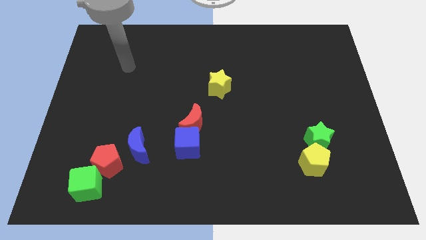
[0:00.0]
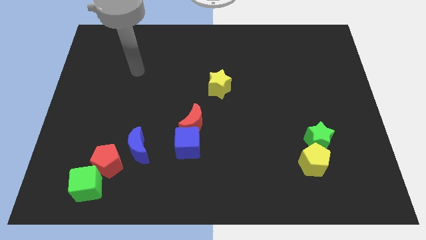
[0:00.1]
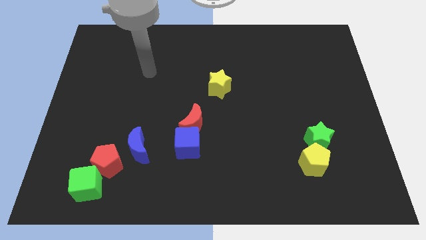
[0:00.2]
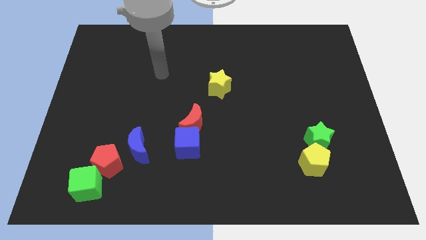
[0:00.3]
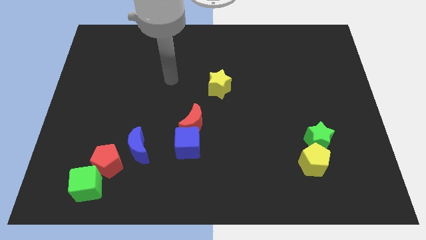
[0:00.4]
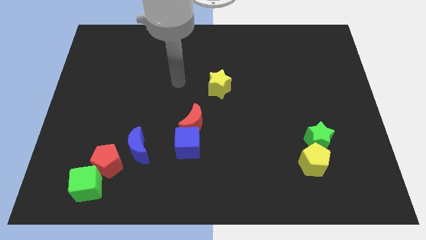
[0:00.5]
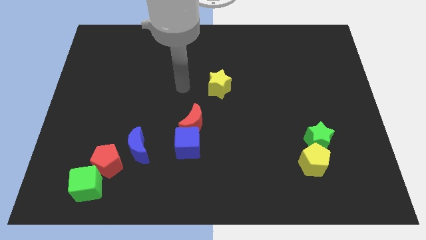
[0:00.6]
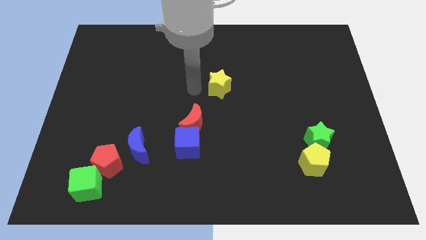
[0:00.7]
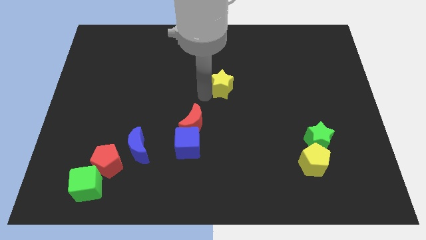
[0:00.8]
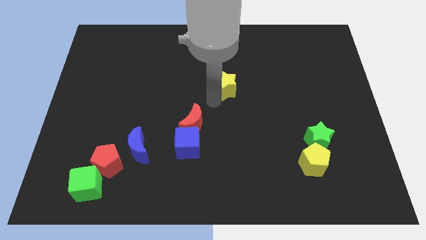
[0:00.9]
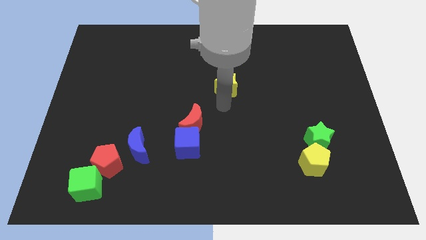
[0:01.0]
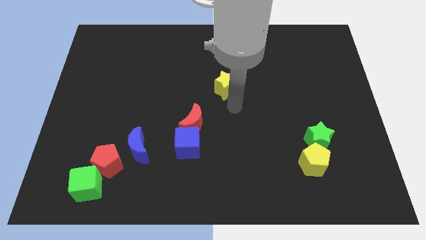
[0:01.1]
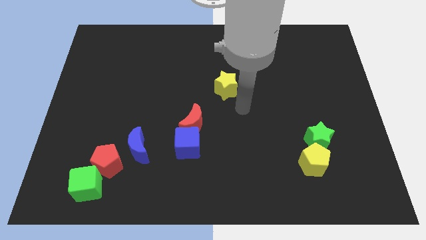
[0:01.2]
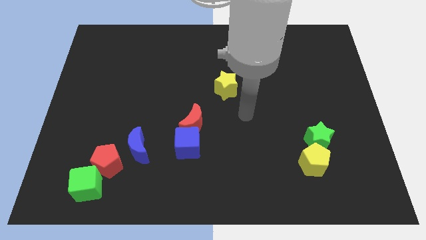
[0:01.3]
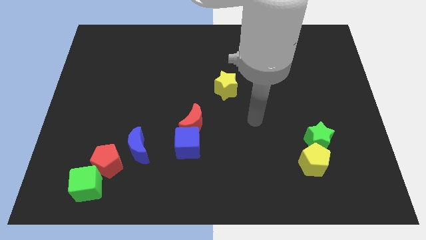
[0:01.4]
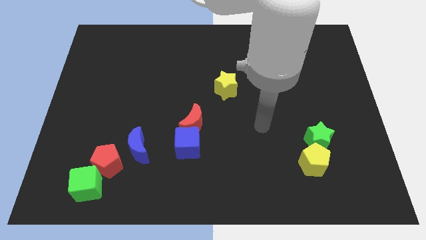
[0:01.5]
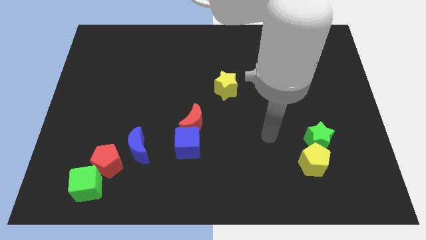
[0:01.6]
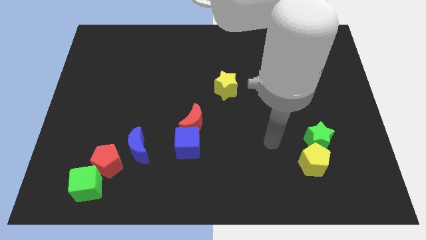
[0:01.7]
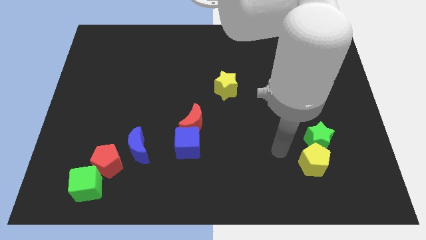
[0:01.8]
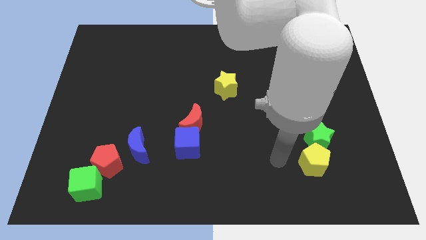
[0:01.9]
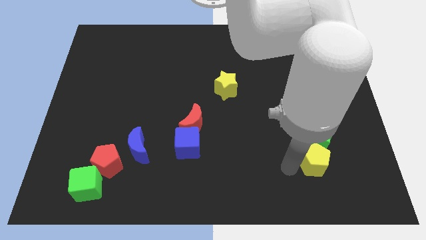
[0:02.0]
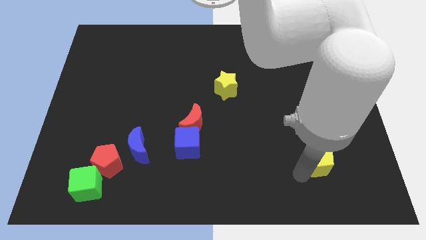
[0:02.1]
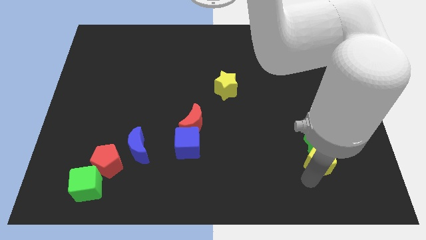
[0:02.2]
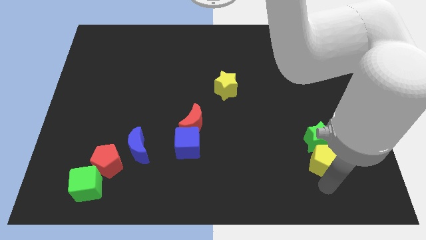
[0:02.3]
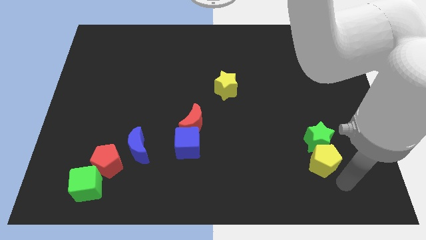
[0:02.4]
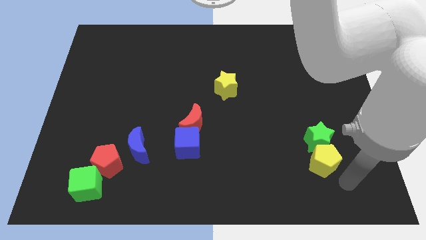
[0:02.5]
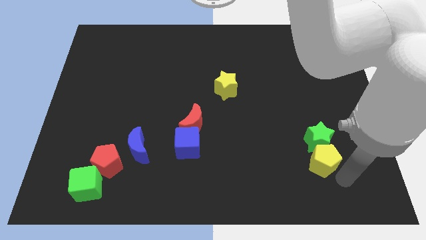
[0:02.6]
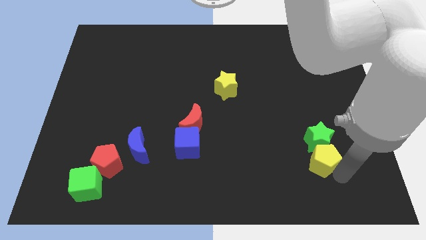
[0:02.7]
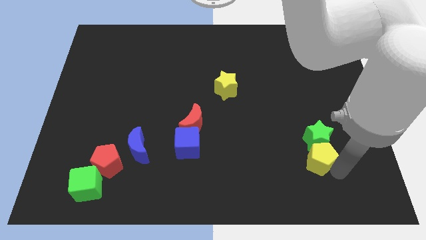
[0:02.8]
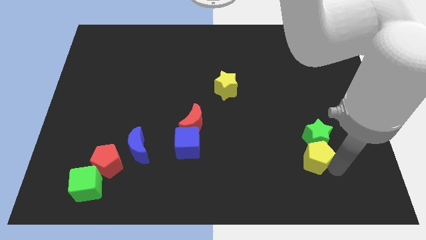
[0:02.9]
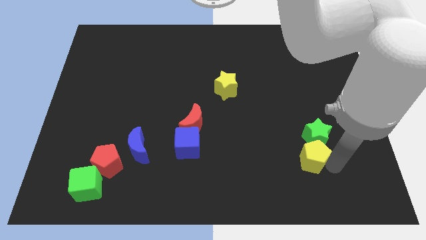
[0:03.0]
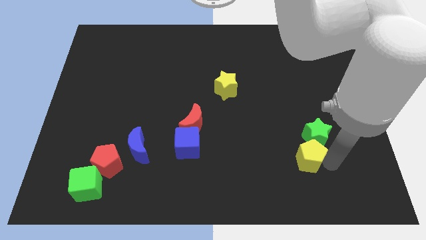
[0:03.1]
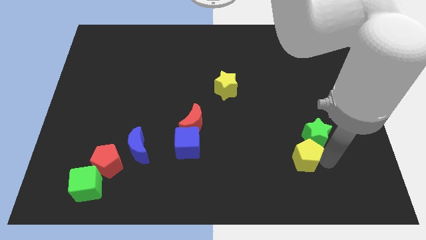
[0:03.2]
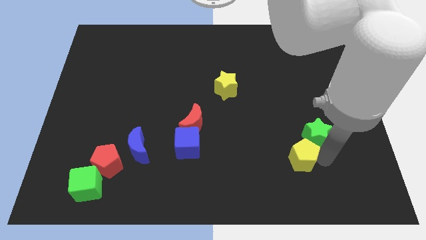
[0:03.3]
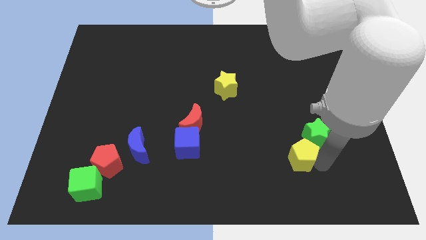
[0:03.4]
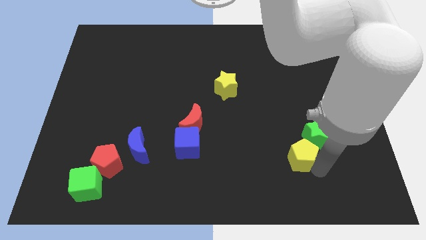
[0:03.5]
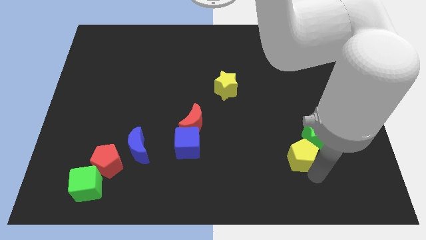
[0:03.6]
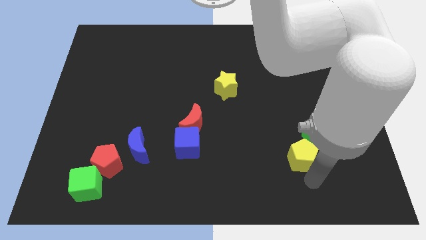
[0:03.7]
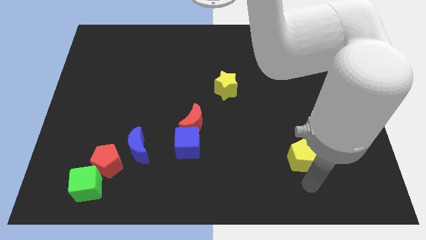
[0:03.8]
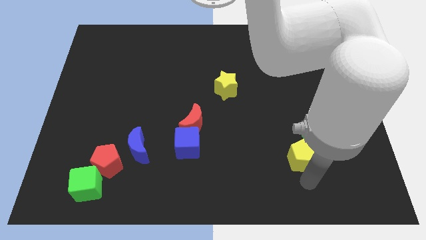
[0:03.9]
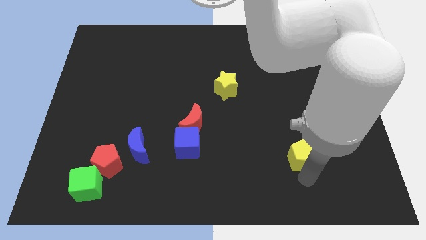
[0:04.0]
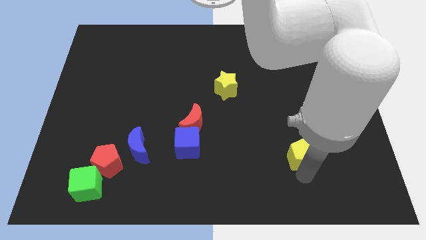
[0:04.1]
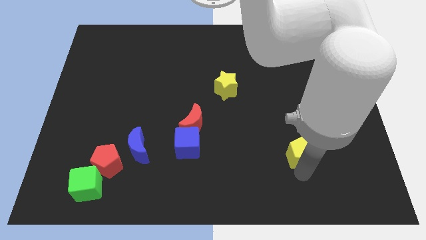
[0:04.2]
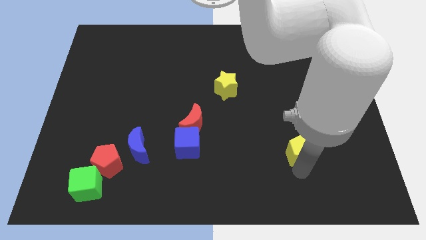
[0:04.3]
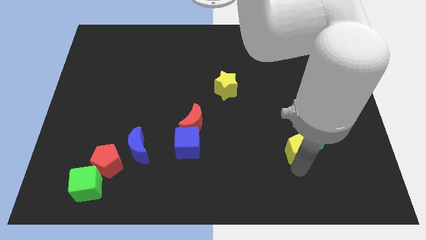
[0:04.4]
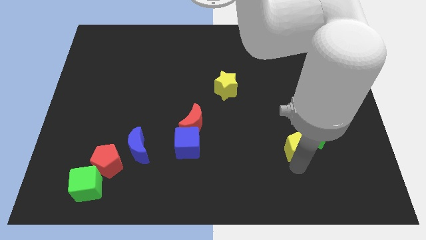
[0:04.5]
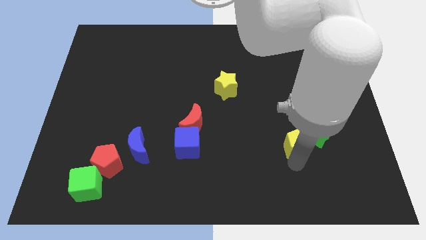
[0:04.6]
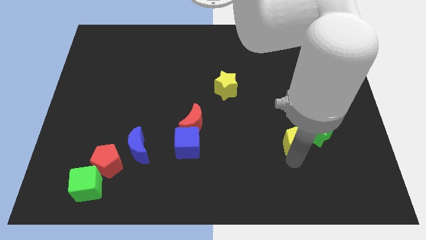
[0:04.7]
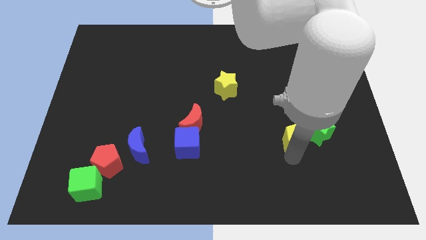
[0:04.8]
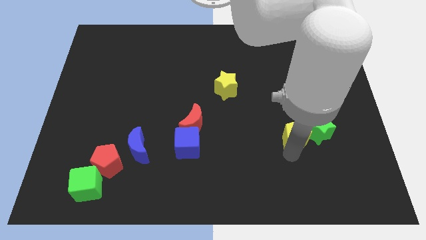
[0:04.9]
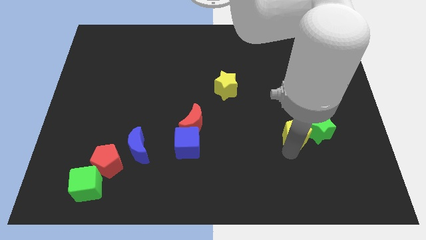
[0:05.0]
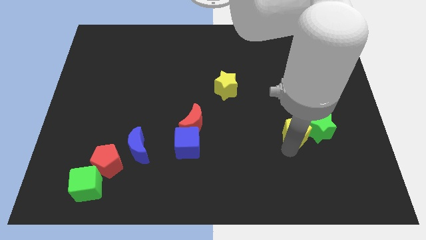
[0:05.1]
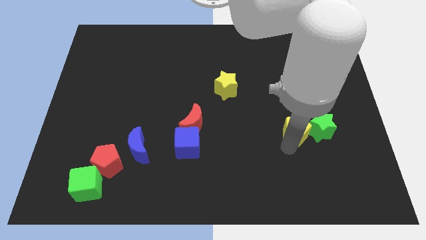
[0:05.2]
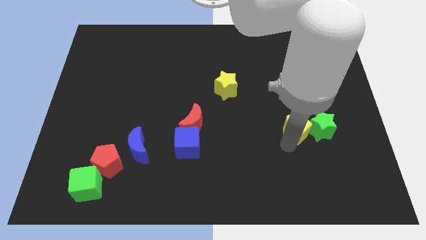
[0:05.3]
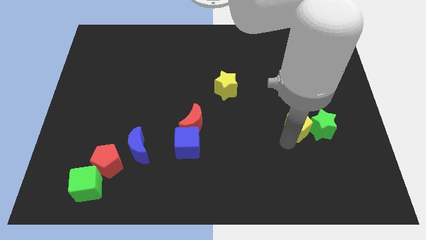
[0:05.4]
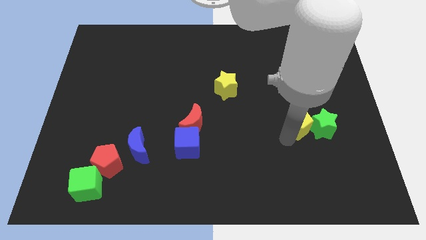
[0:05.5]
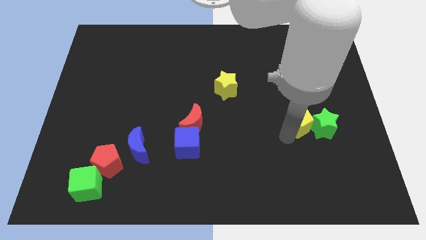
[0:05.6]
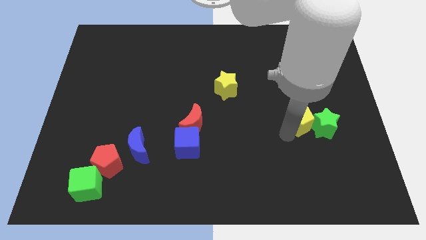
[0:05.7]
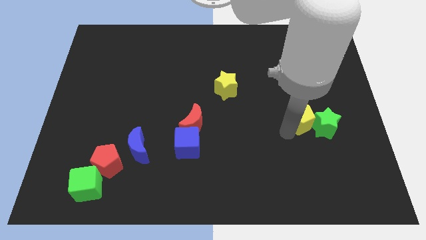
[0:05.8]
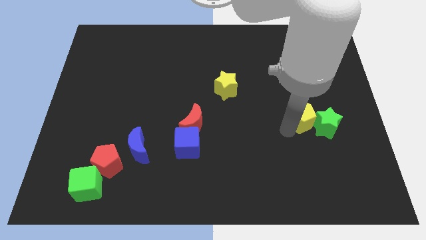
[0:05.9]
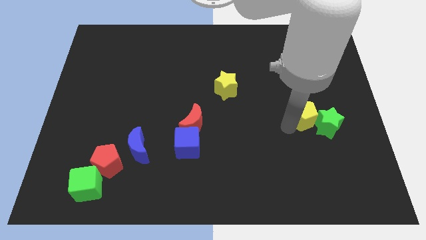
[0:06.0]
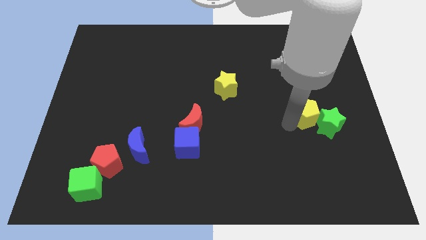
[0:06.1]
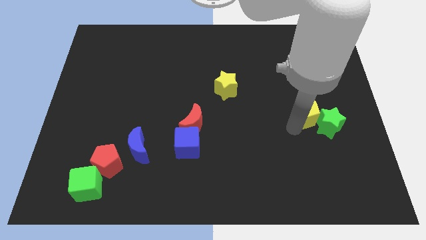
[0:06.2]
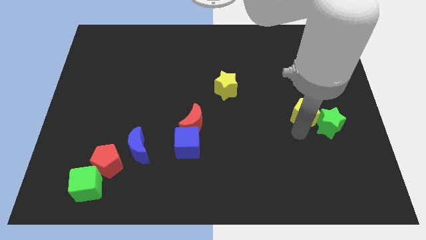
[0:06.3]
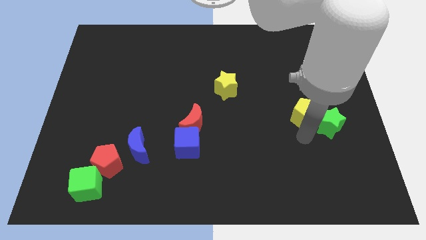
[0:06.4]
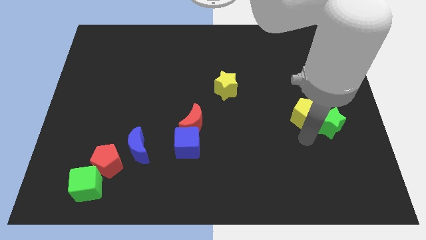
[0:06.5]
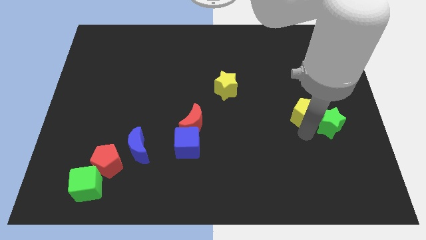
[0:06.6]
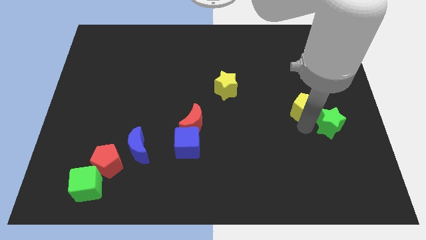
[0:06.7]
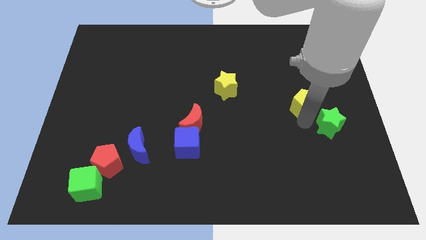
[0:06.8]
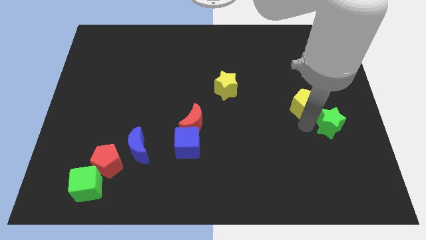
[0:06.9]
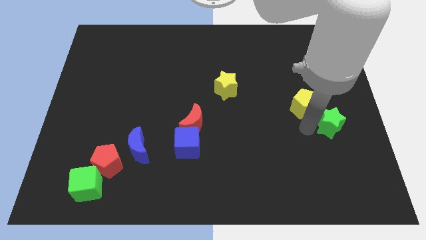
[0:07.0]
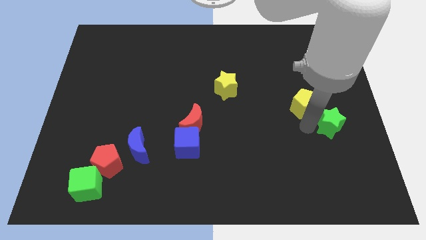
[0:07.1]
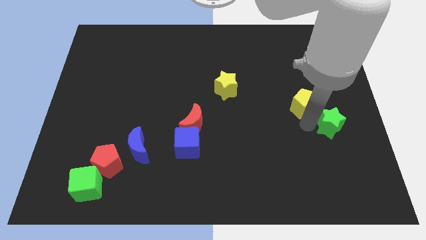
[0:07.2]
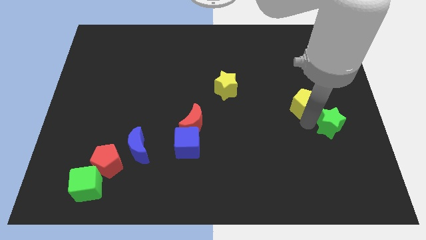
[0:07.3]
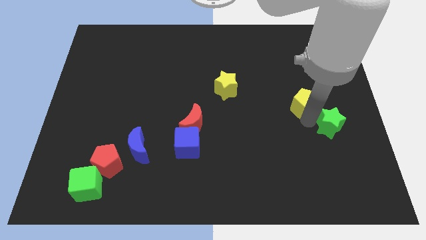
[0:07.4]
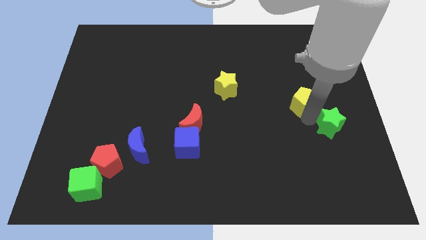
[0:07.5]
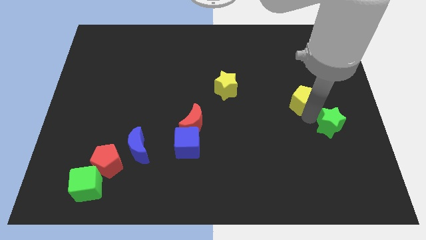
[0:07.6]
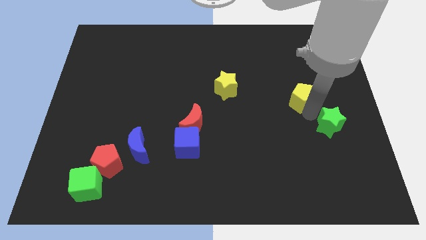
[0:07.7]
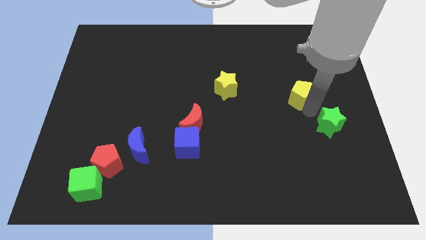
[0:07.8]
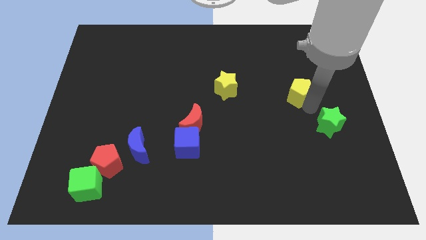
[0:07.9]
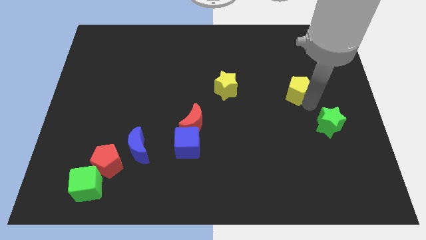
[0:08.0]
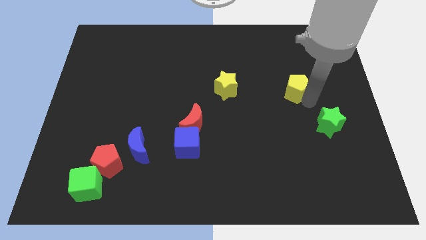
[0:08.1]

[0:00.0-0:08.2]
push the yellow pentagon up
